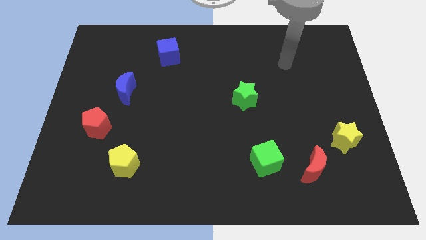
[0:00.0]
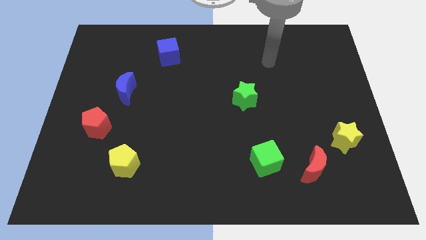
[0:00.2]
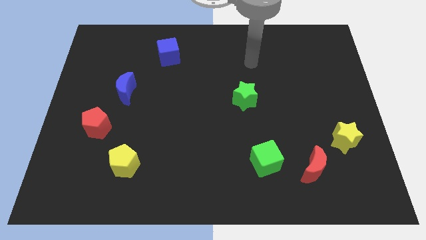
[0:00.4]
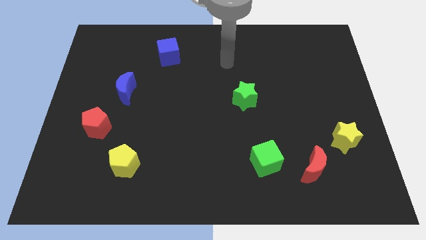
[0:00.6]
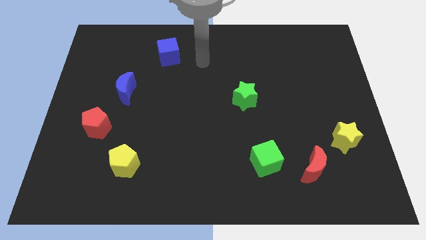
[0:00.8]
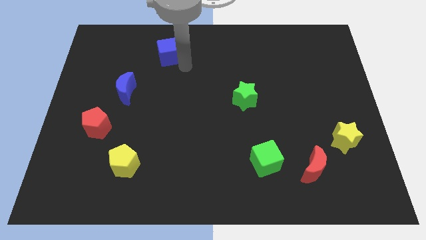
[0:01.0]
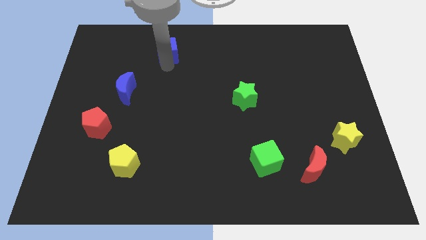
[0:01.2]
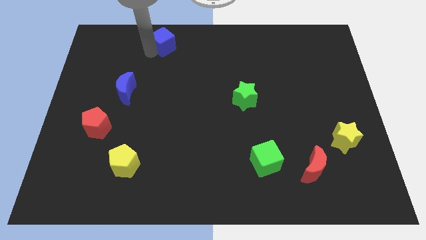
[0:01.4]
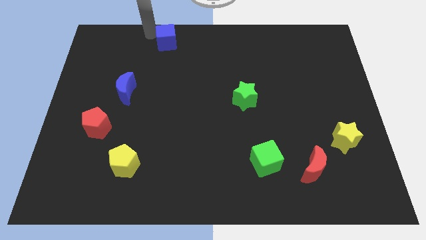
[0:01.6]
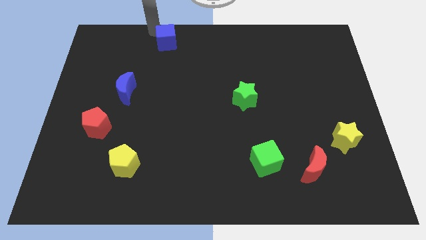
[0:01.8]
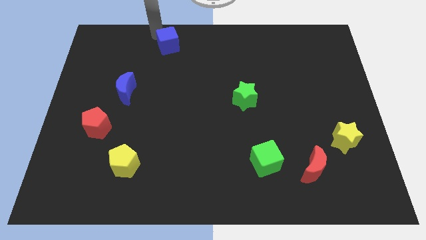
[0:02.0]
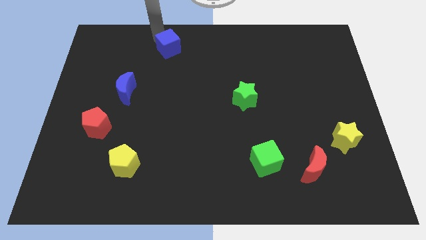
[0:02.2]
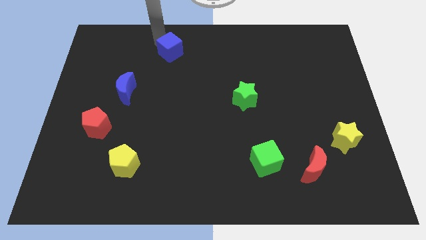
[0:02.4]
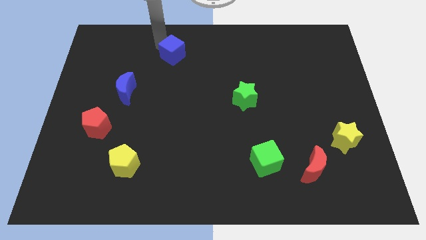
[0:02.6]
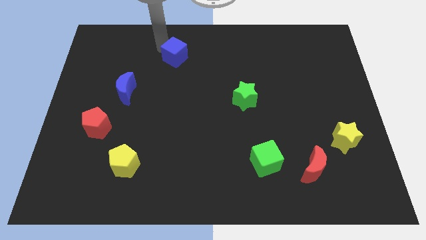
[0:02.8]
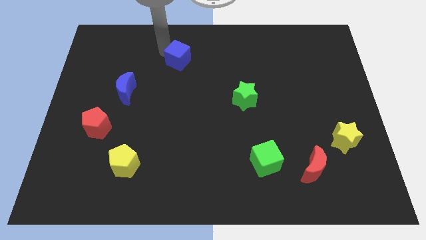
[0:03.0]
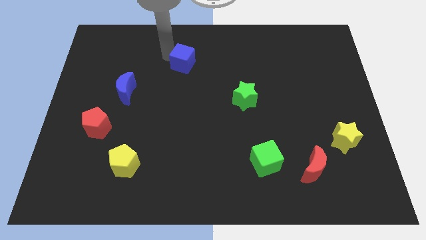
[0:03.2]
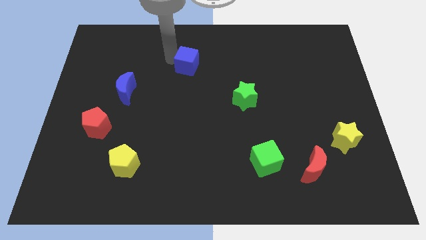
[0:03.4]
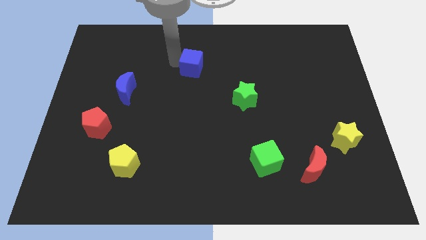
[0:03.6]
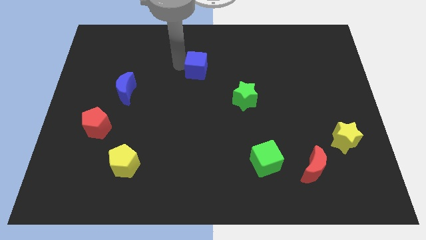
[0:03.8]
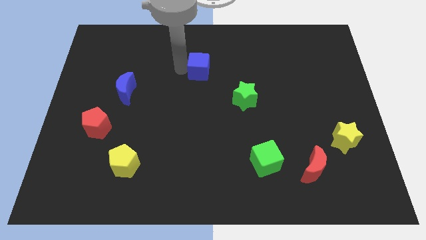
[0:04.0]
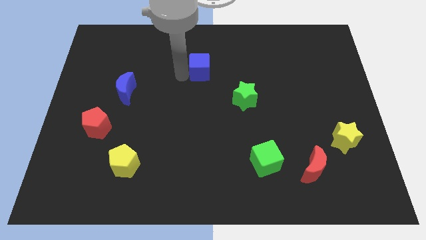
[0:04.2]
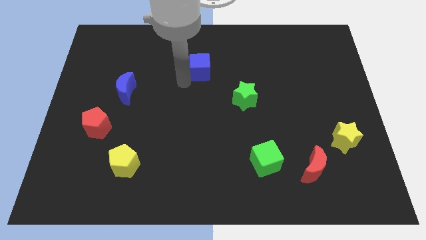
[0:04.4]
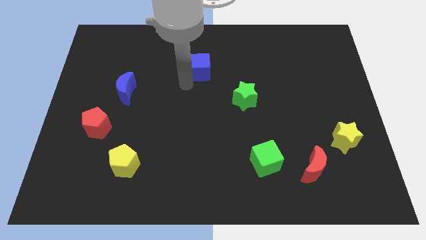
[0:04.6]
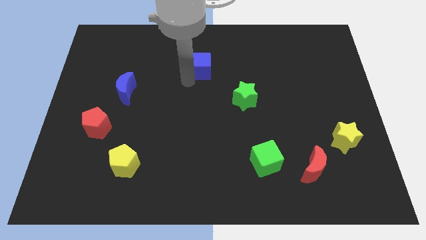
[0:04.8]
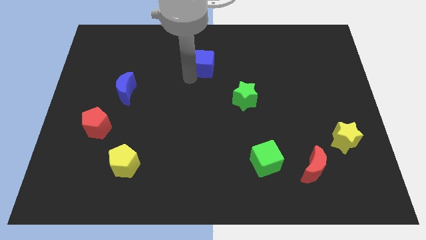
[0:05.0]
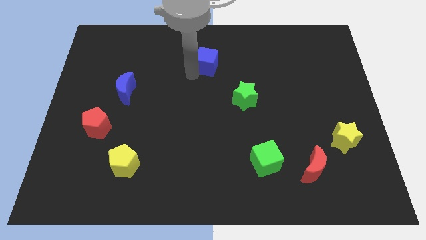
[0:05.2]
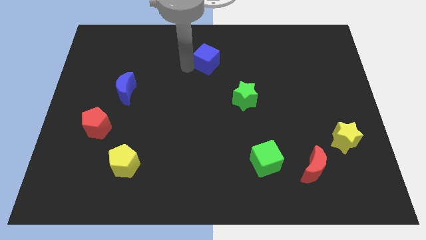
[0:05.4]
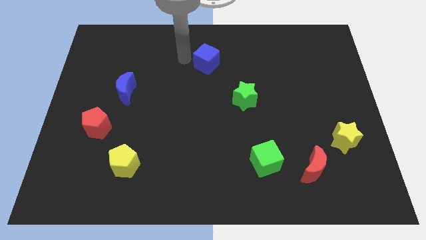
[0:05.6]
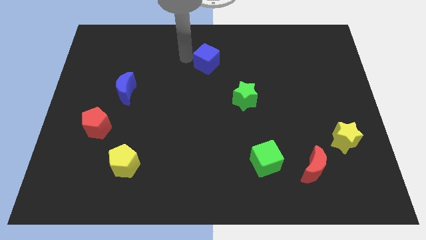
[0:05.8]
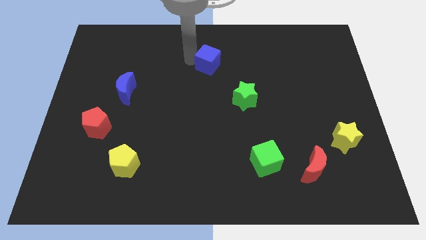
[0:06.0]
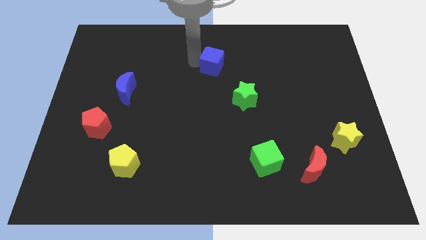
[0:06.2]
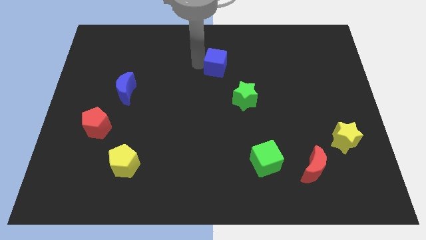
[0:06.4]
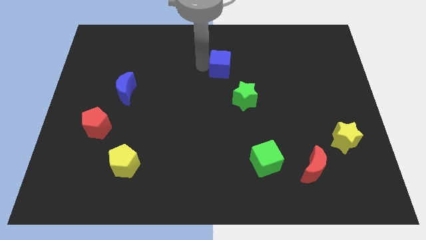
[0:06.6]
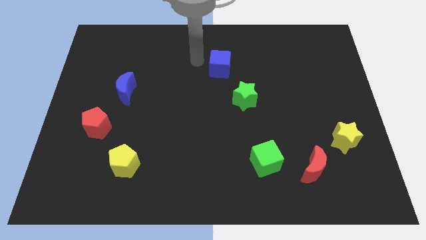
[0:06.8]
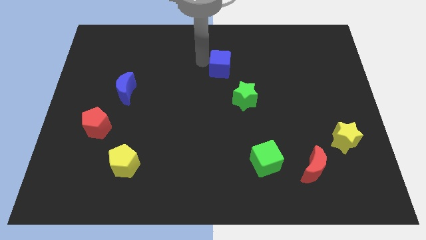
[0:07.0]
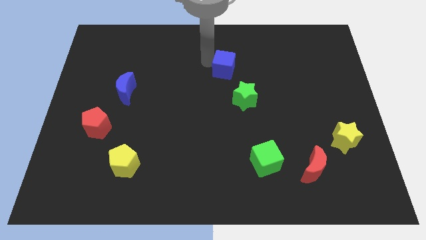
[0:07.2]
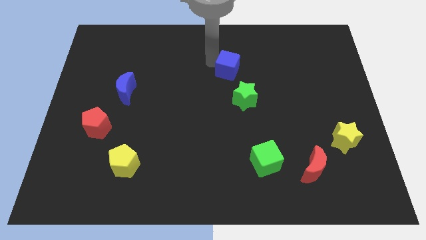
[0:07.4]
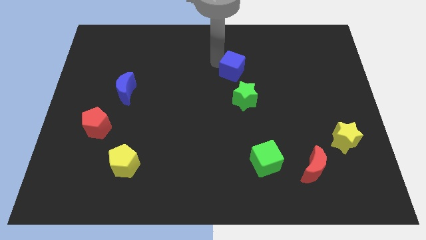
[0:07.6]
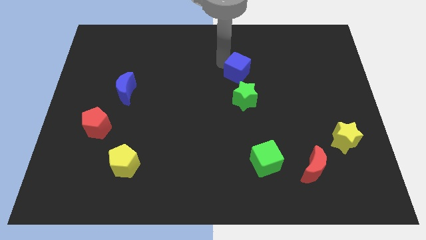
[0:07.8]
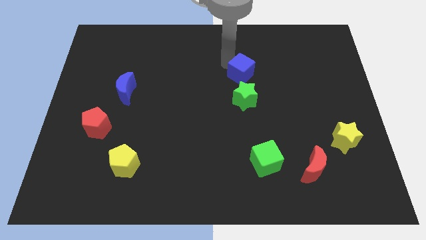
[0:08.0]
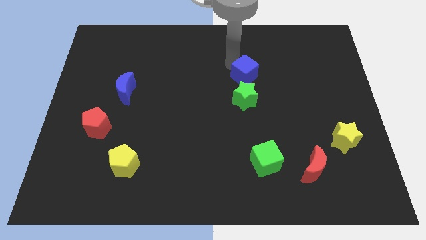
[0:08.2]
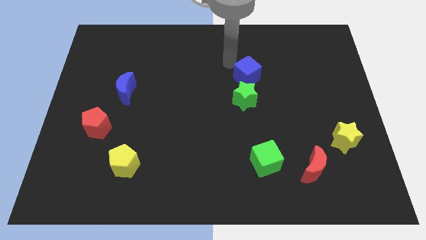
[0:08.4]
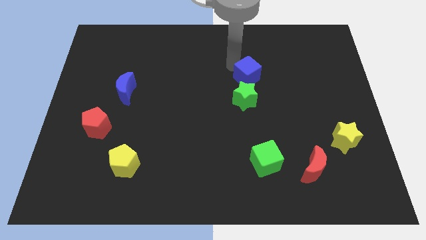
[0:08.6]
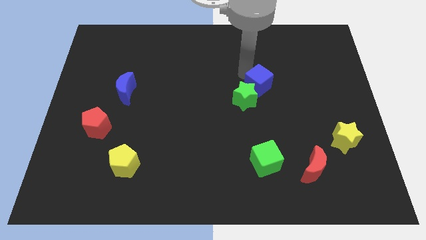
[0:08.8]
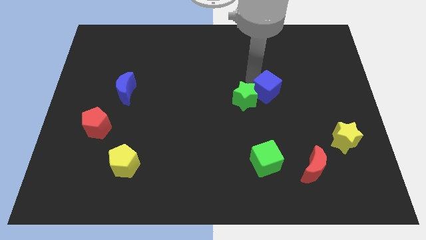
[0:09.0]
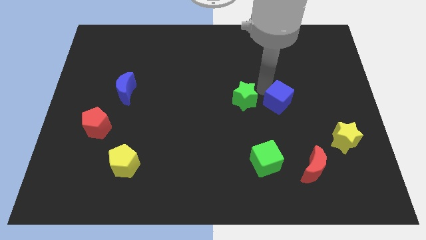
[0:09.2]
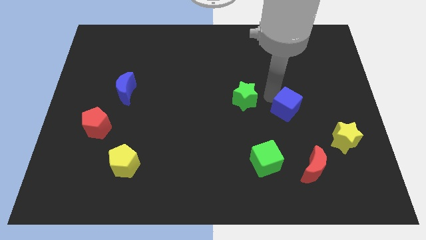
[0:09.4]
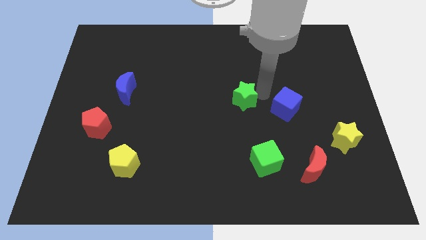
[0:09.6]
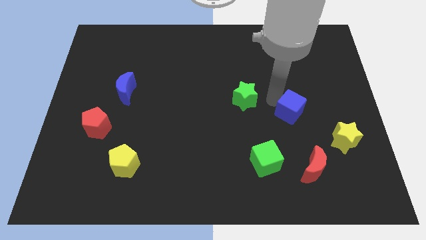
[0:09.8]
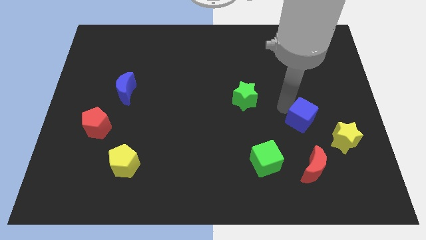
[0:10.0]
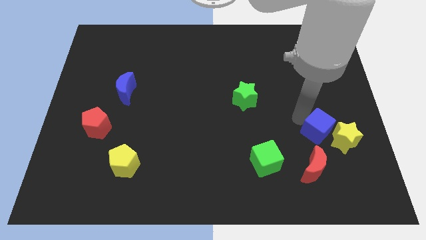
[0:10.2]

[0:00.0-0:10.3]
put the blue cube to the yellow star

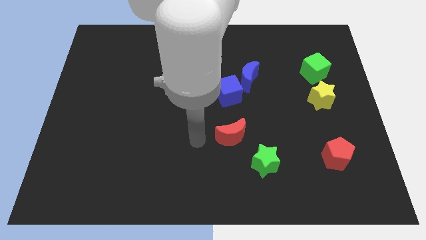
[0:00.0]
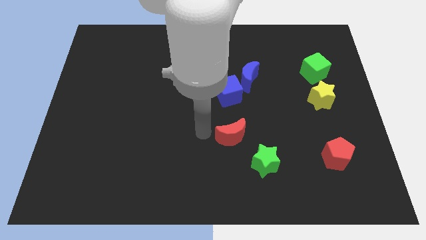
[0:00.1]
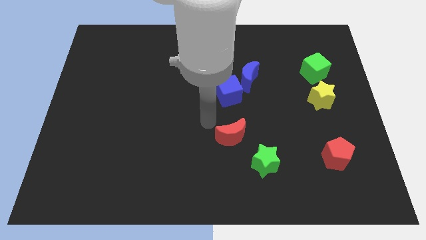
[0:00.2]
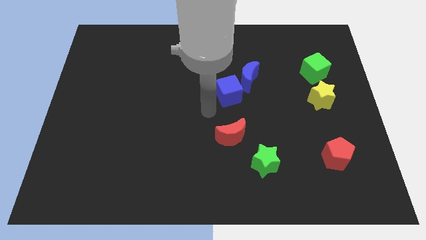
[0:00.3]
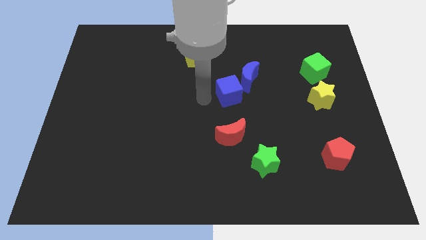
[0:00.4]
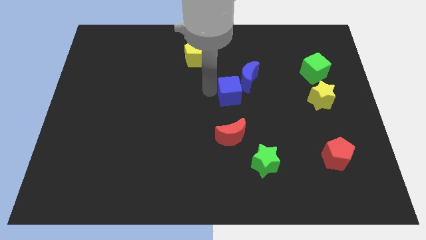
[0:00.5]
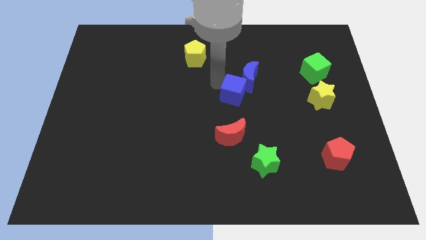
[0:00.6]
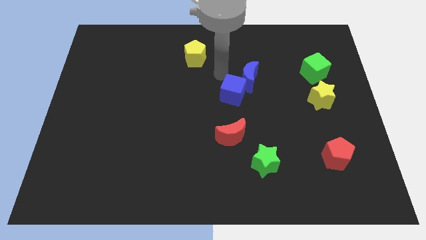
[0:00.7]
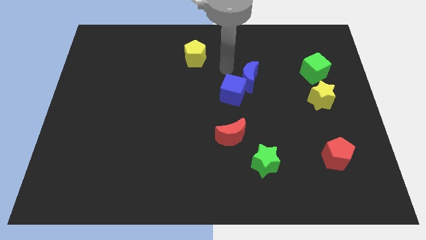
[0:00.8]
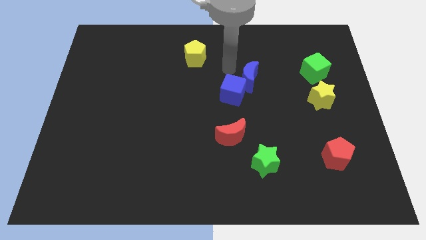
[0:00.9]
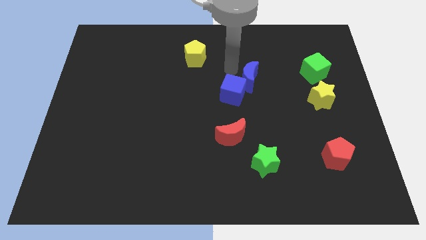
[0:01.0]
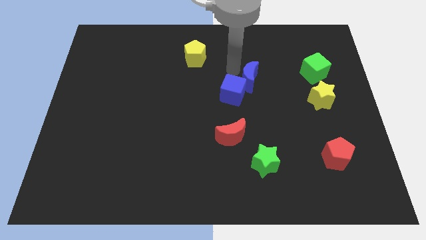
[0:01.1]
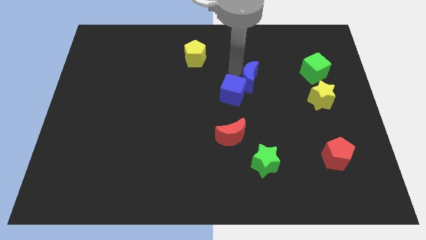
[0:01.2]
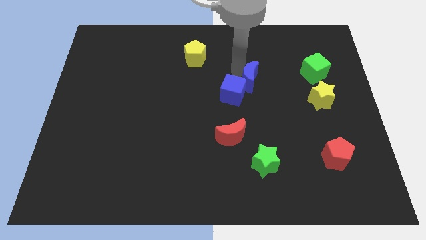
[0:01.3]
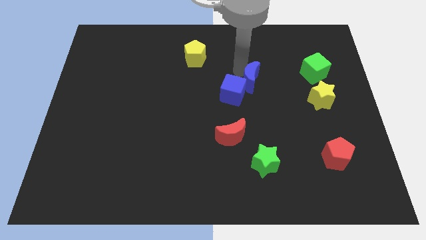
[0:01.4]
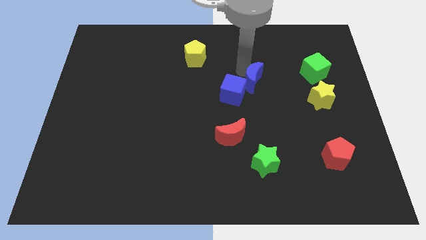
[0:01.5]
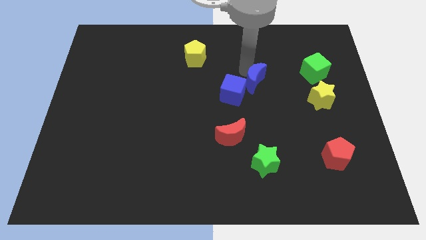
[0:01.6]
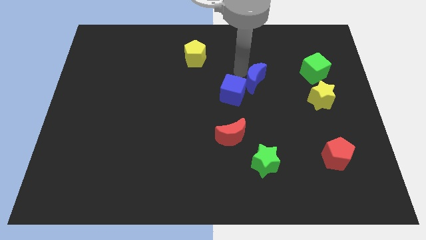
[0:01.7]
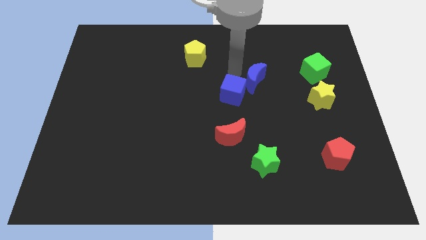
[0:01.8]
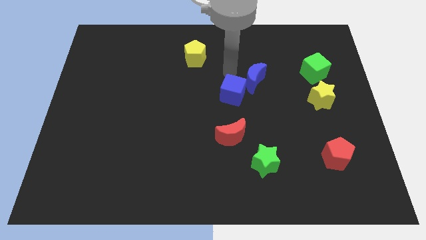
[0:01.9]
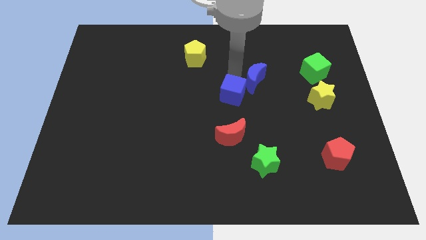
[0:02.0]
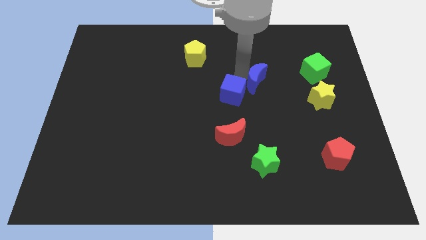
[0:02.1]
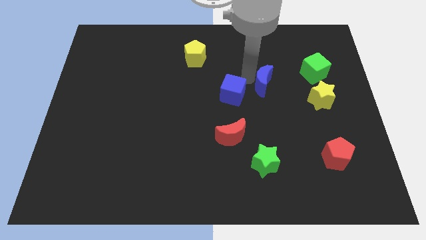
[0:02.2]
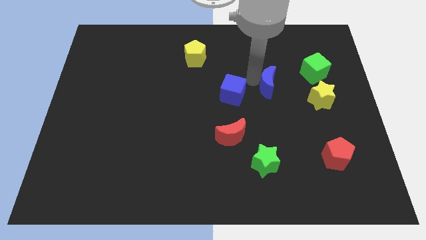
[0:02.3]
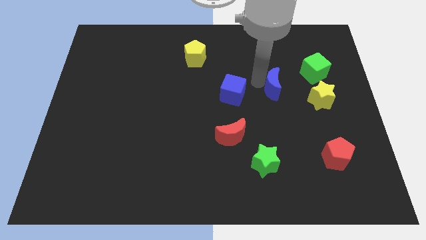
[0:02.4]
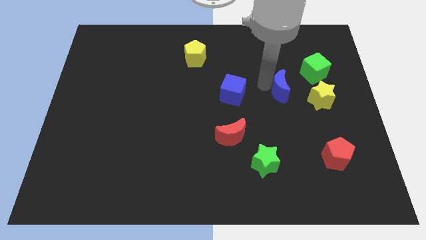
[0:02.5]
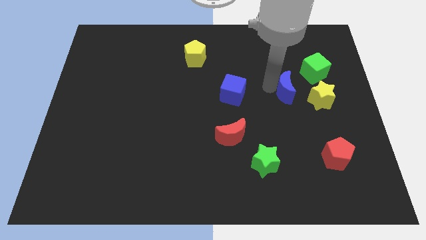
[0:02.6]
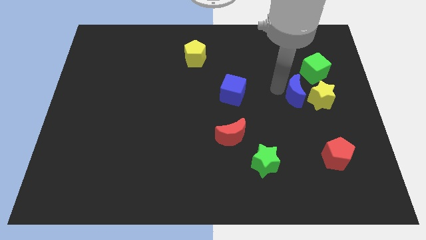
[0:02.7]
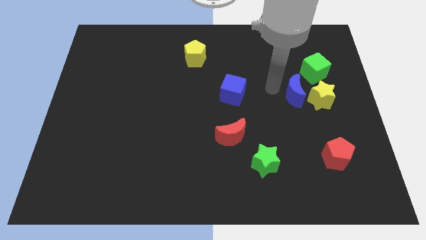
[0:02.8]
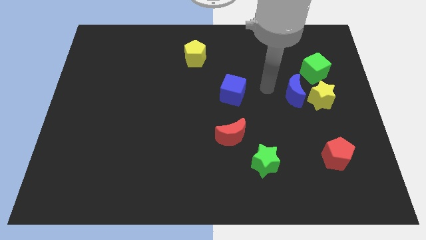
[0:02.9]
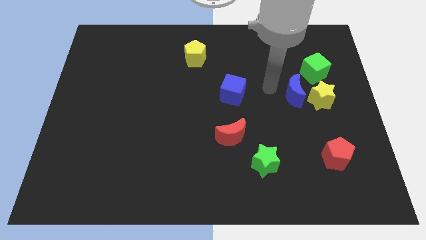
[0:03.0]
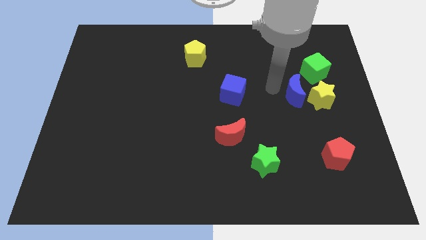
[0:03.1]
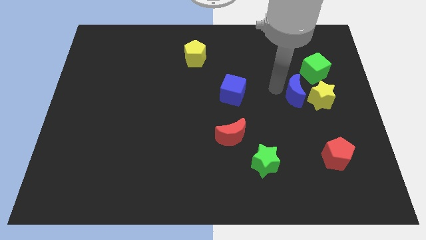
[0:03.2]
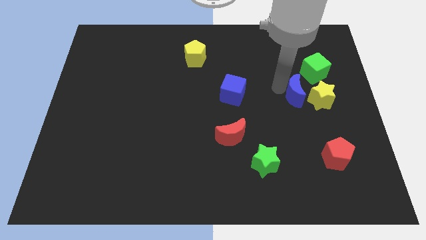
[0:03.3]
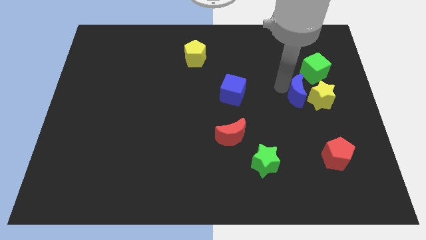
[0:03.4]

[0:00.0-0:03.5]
push the blue moon next to the yellow star
